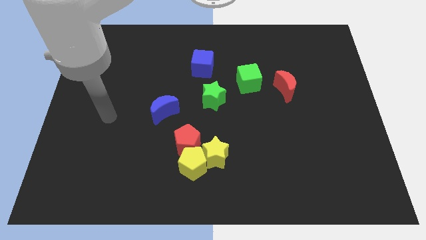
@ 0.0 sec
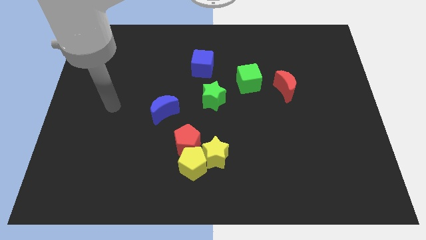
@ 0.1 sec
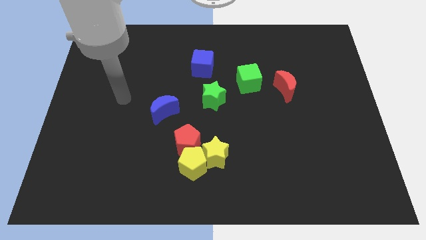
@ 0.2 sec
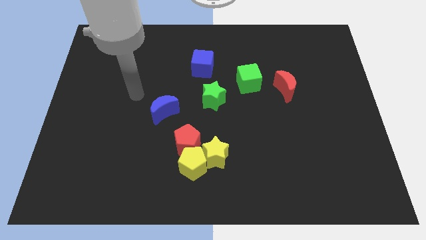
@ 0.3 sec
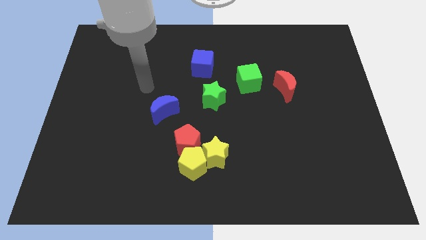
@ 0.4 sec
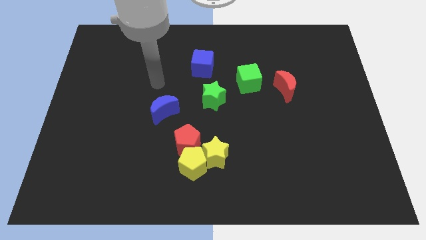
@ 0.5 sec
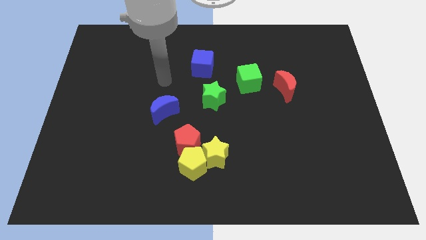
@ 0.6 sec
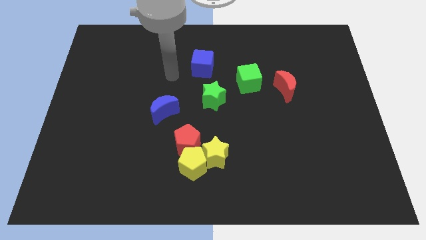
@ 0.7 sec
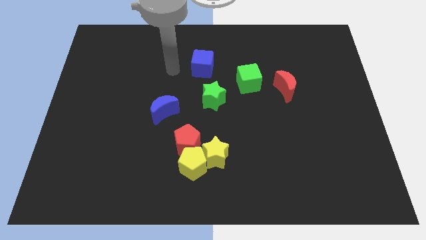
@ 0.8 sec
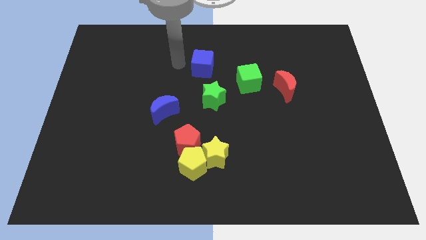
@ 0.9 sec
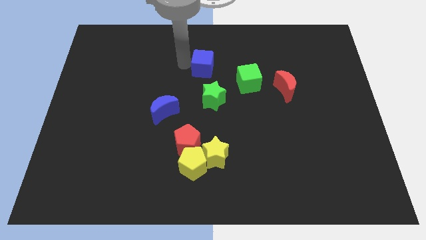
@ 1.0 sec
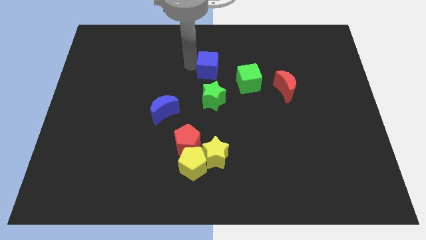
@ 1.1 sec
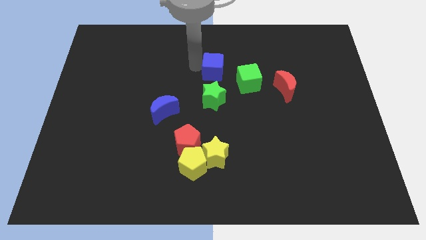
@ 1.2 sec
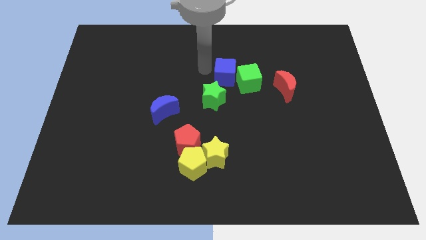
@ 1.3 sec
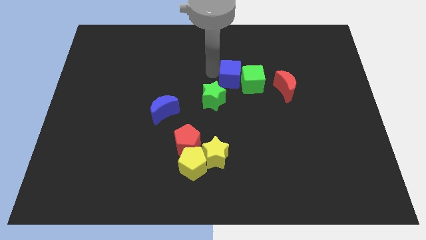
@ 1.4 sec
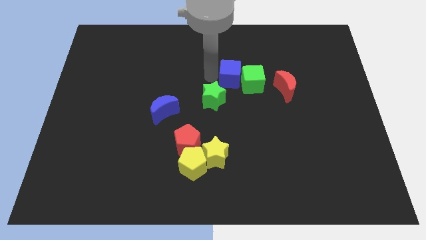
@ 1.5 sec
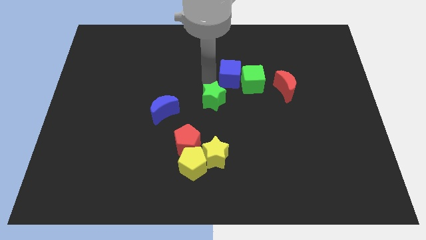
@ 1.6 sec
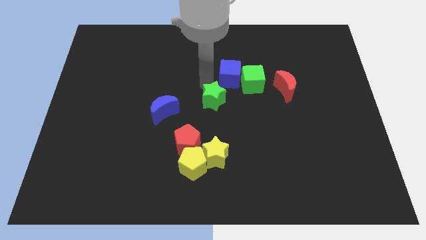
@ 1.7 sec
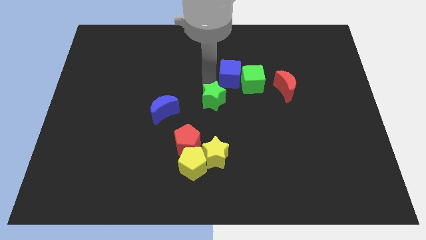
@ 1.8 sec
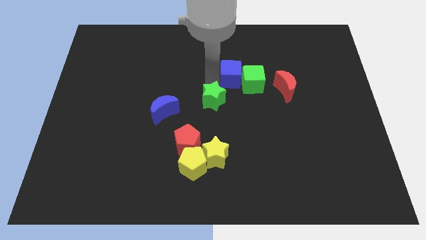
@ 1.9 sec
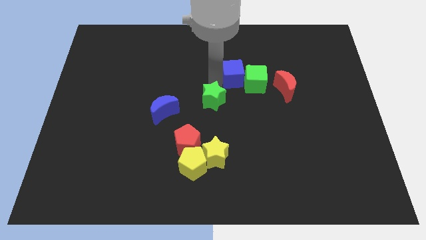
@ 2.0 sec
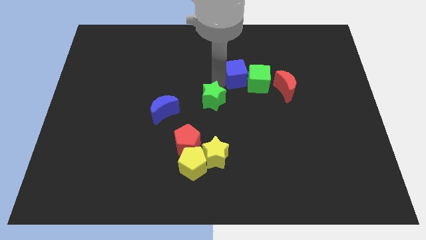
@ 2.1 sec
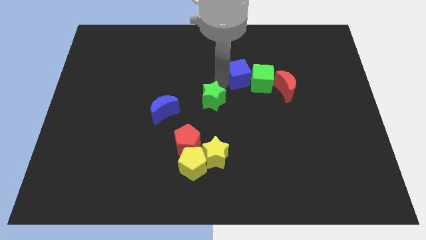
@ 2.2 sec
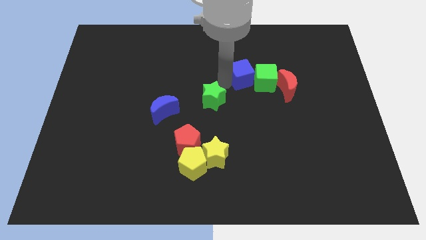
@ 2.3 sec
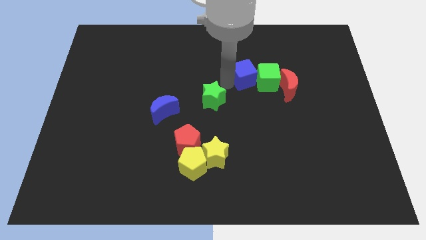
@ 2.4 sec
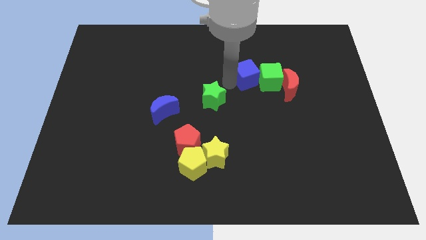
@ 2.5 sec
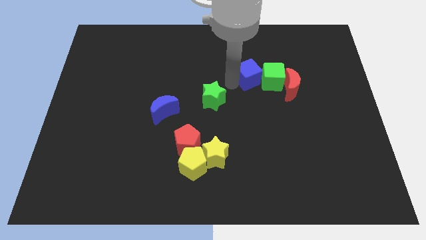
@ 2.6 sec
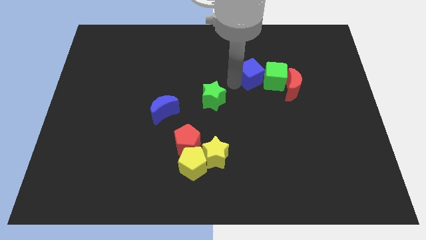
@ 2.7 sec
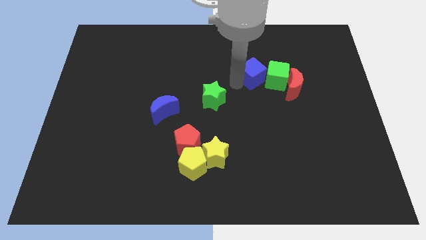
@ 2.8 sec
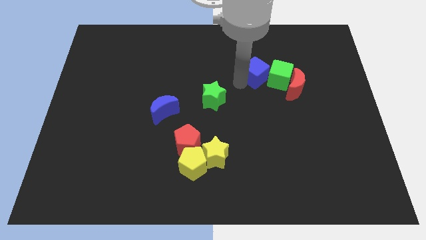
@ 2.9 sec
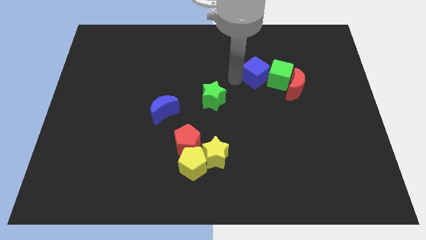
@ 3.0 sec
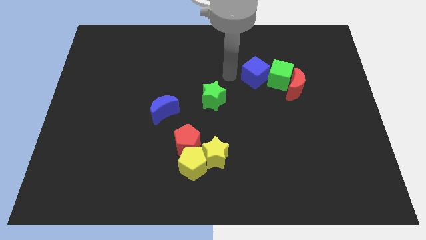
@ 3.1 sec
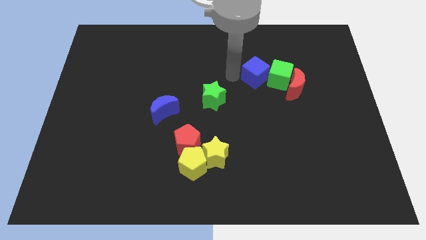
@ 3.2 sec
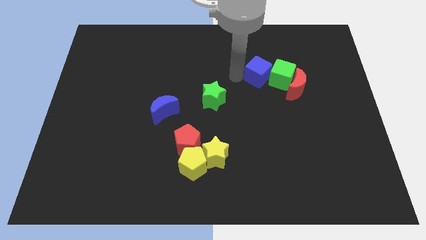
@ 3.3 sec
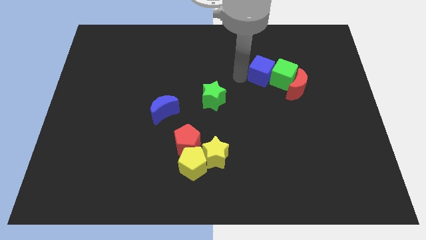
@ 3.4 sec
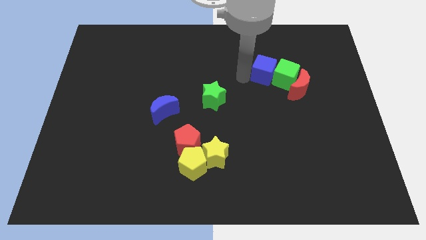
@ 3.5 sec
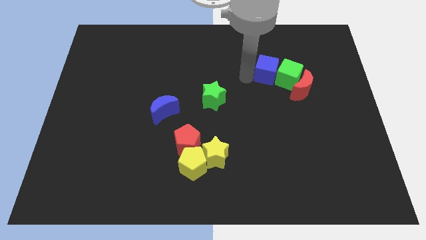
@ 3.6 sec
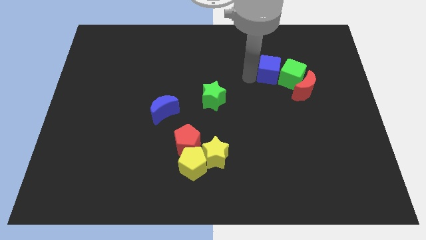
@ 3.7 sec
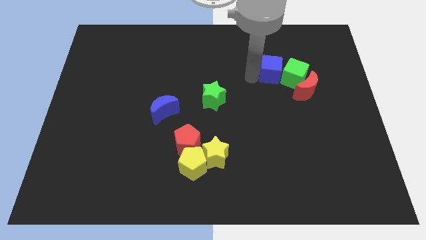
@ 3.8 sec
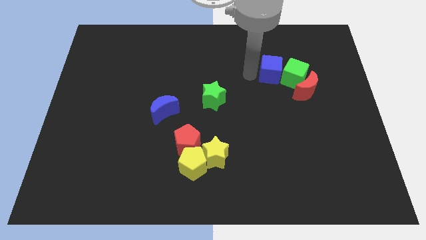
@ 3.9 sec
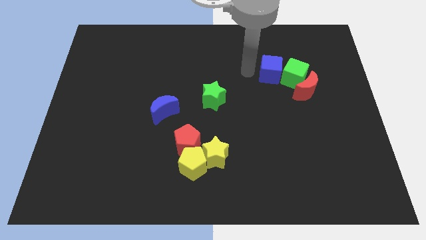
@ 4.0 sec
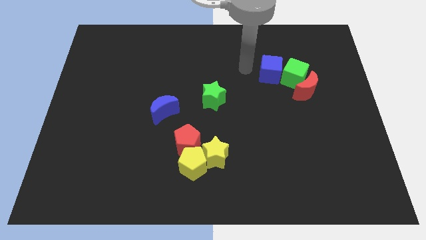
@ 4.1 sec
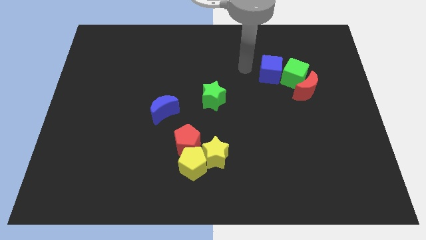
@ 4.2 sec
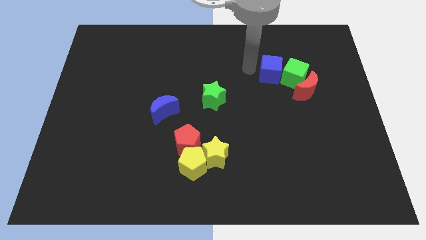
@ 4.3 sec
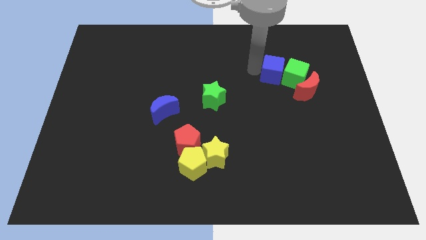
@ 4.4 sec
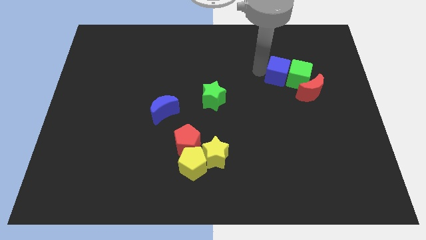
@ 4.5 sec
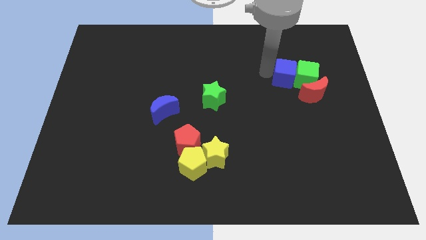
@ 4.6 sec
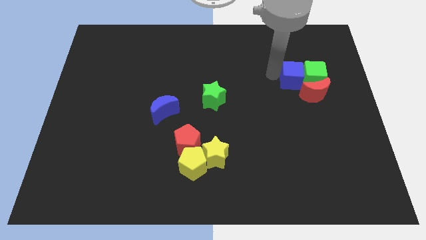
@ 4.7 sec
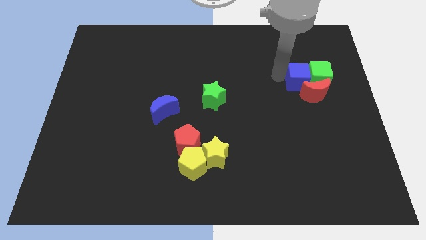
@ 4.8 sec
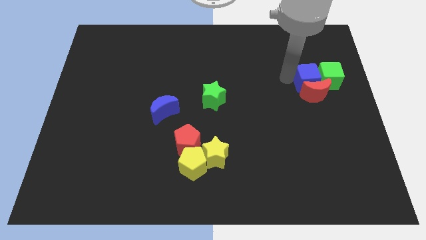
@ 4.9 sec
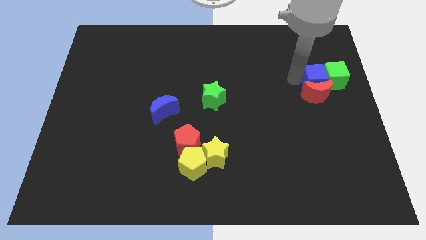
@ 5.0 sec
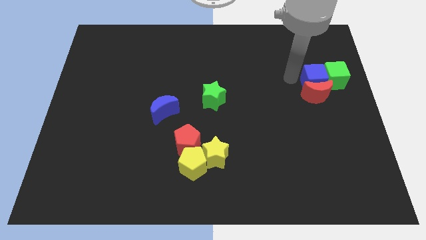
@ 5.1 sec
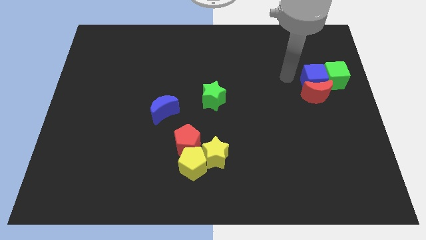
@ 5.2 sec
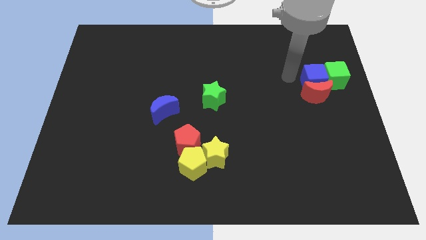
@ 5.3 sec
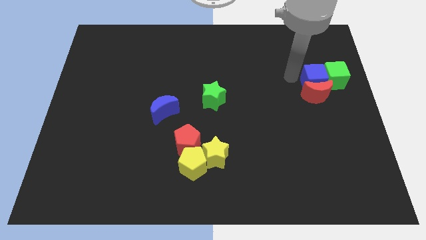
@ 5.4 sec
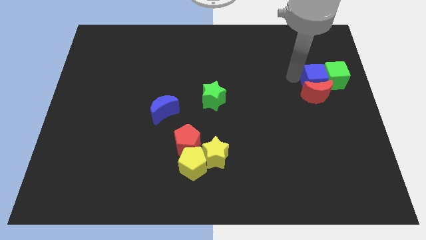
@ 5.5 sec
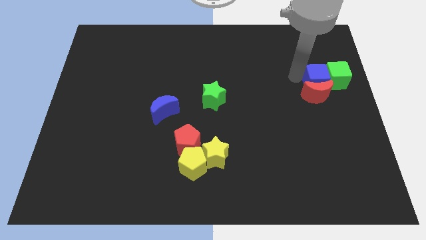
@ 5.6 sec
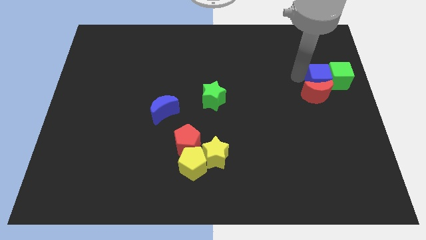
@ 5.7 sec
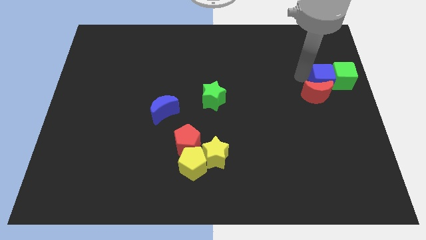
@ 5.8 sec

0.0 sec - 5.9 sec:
move the blue cube to the right side of the board

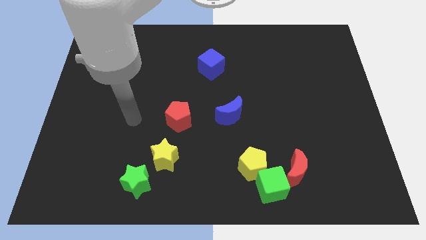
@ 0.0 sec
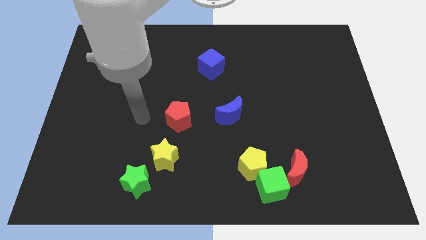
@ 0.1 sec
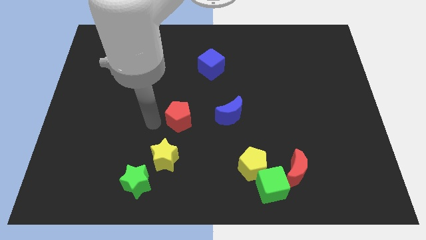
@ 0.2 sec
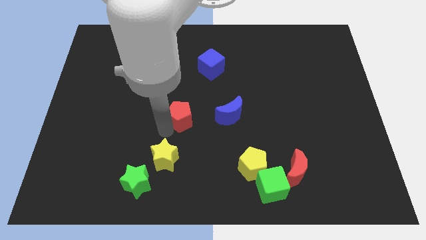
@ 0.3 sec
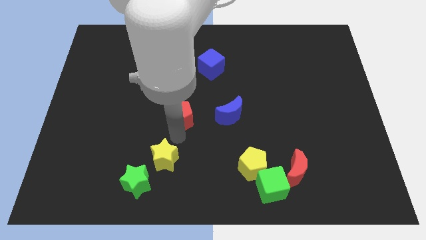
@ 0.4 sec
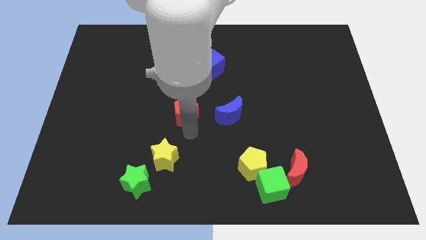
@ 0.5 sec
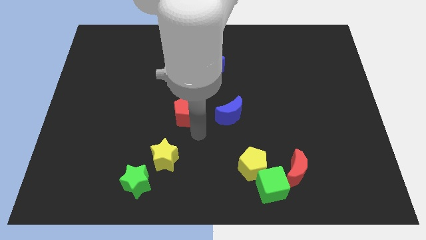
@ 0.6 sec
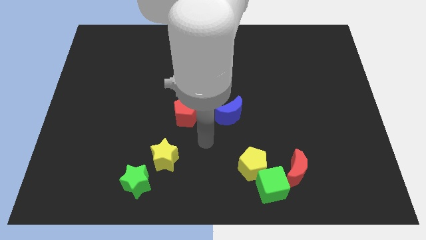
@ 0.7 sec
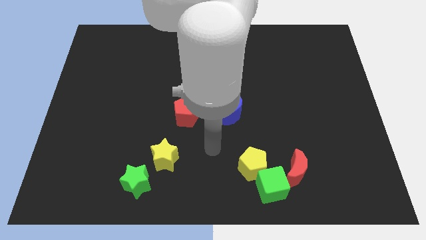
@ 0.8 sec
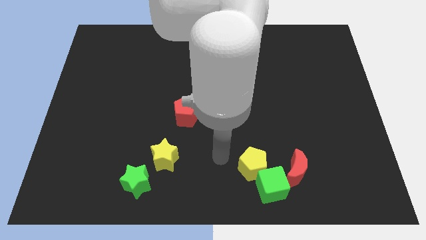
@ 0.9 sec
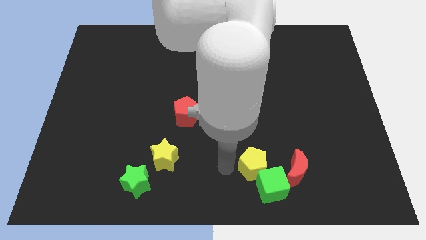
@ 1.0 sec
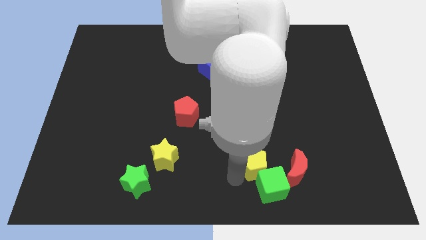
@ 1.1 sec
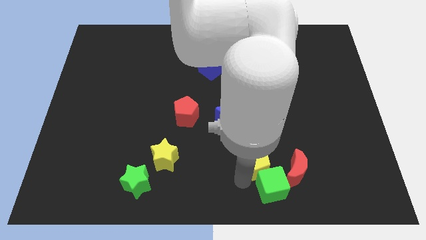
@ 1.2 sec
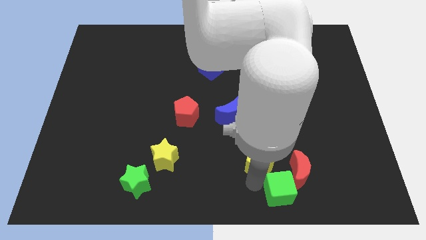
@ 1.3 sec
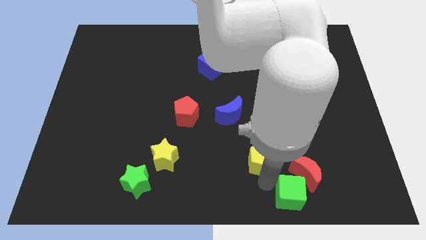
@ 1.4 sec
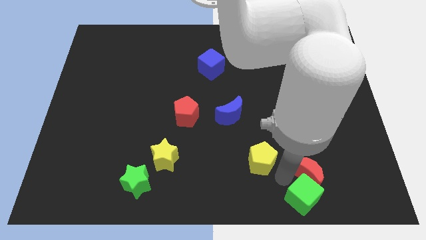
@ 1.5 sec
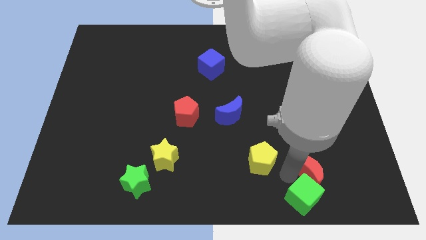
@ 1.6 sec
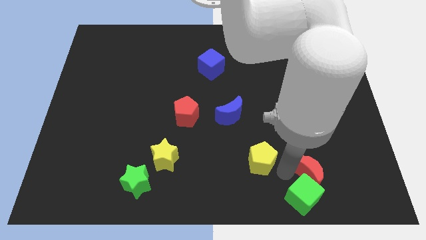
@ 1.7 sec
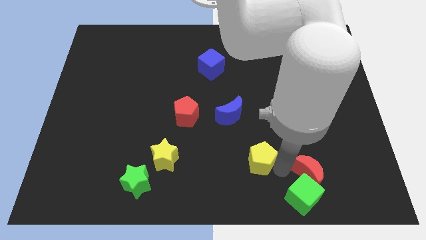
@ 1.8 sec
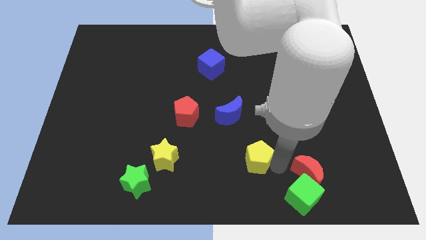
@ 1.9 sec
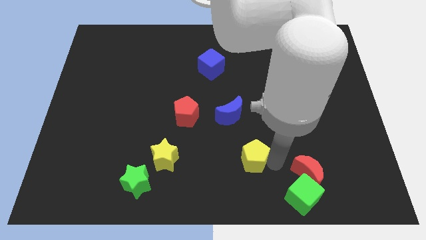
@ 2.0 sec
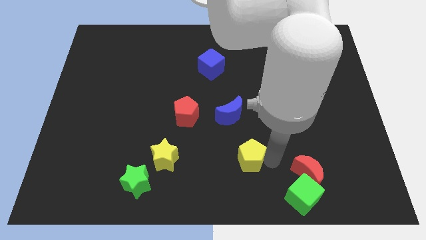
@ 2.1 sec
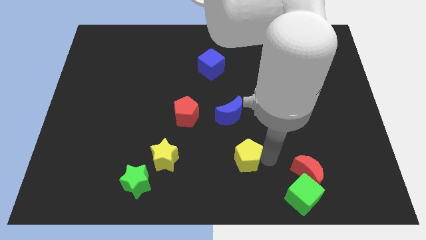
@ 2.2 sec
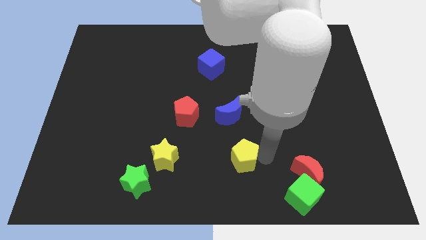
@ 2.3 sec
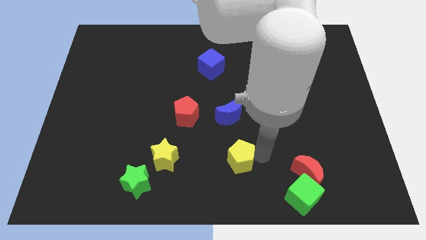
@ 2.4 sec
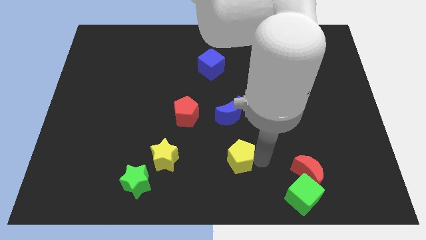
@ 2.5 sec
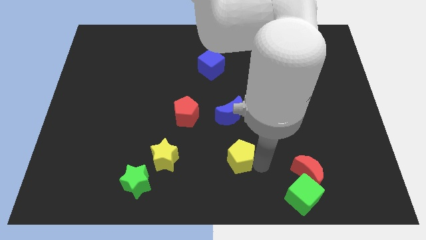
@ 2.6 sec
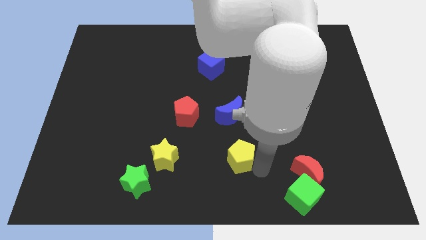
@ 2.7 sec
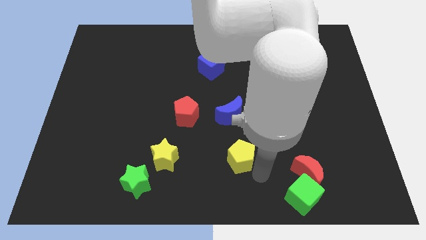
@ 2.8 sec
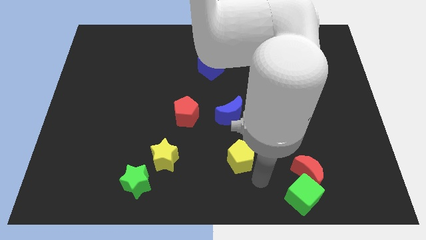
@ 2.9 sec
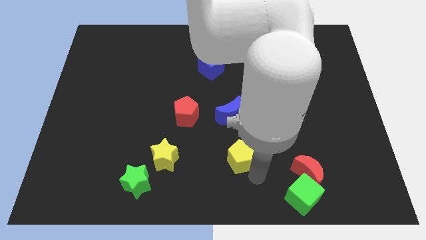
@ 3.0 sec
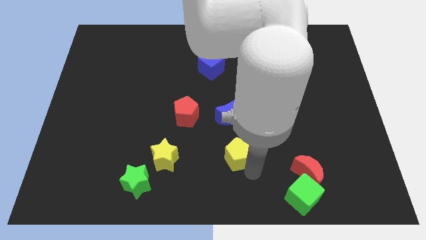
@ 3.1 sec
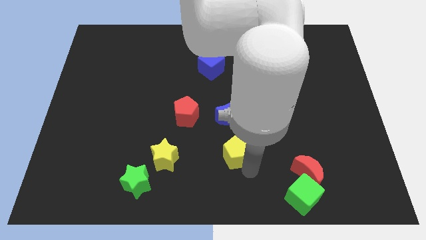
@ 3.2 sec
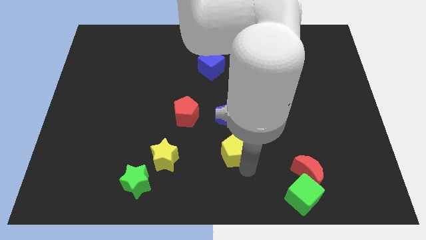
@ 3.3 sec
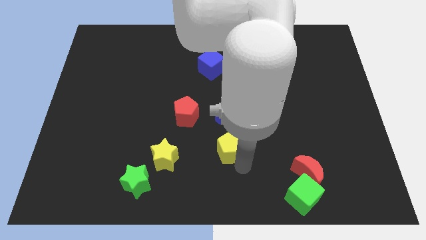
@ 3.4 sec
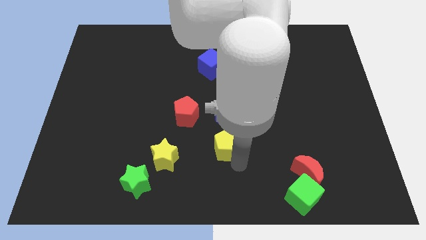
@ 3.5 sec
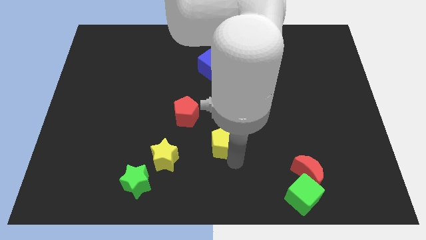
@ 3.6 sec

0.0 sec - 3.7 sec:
slide the yellow pentagon to the middle
